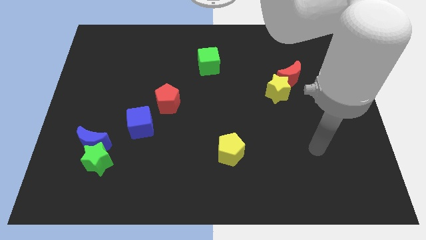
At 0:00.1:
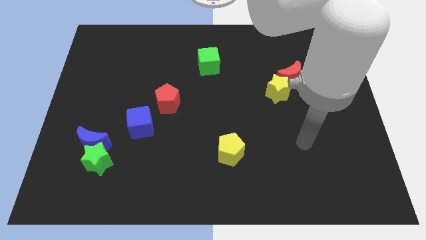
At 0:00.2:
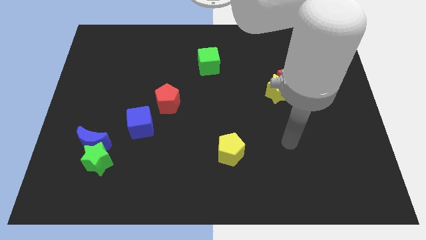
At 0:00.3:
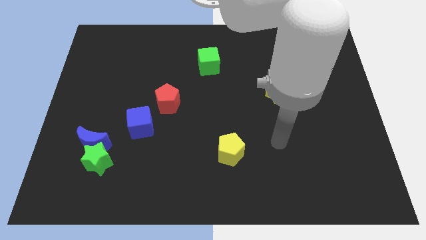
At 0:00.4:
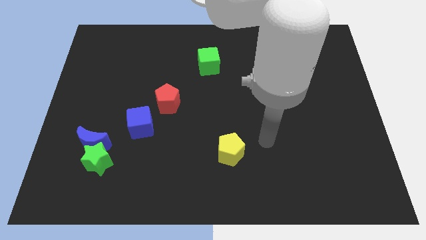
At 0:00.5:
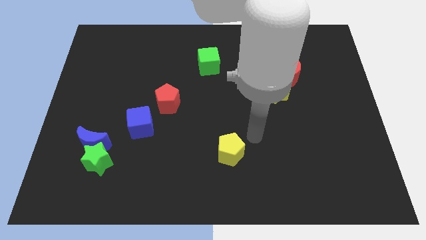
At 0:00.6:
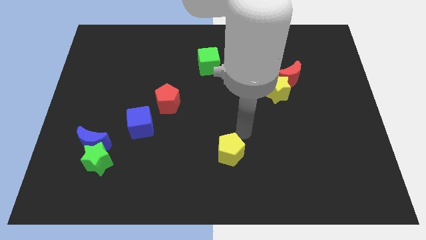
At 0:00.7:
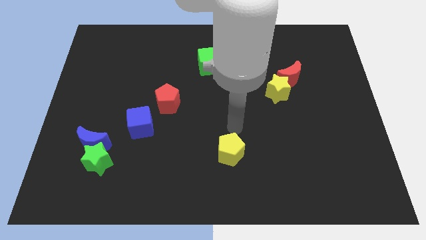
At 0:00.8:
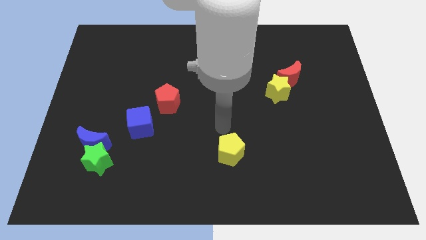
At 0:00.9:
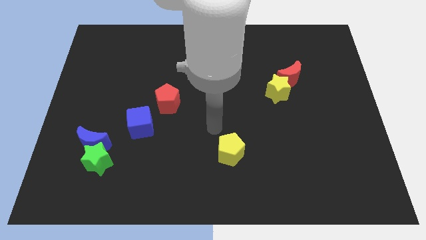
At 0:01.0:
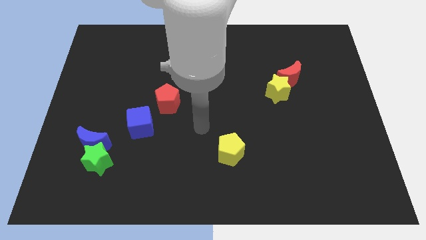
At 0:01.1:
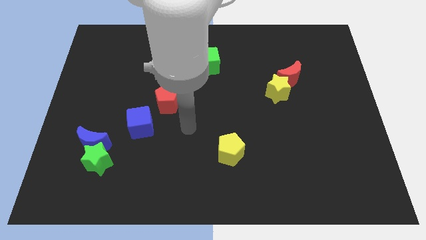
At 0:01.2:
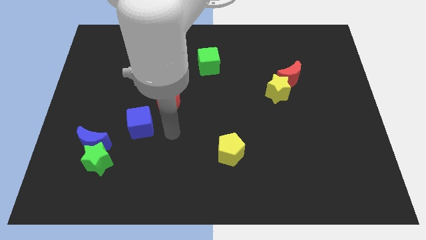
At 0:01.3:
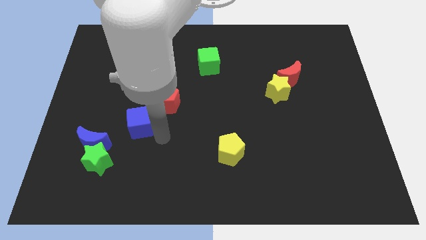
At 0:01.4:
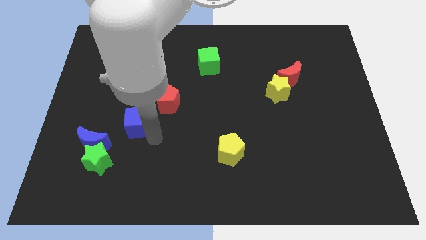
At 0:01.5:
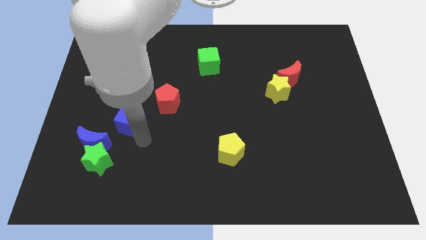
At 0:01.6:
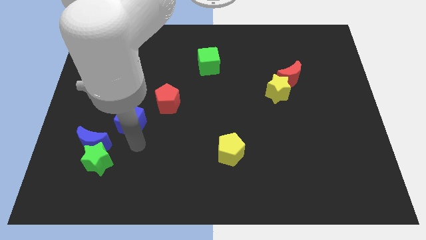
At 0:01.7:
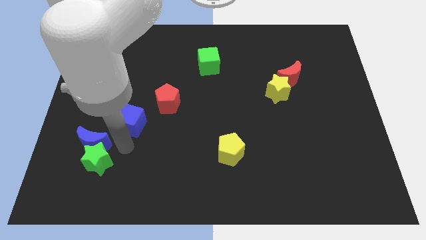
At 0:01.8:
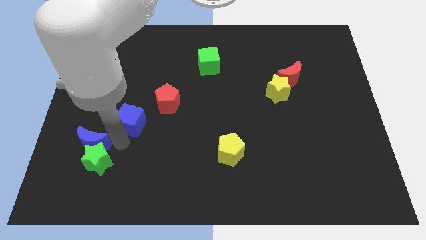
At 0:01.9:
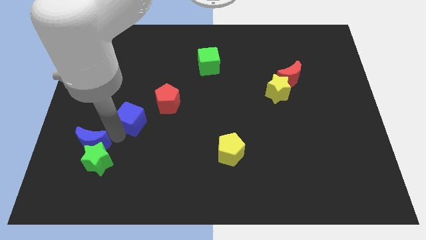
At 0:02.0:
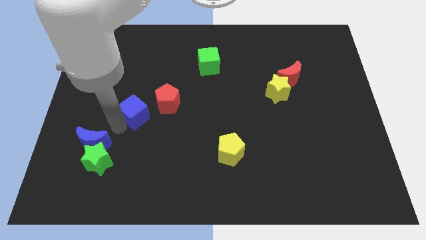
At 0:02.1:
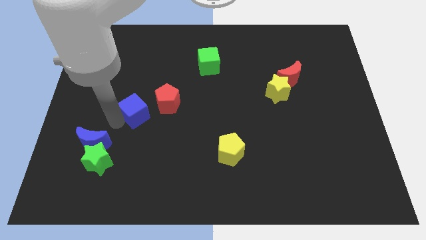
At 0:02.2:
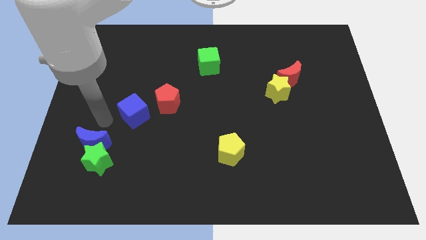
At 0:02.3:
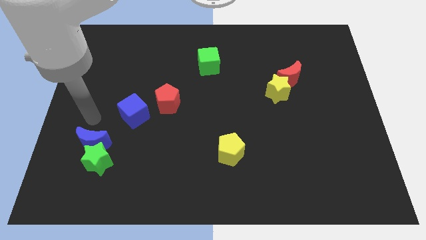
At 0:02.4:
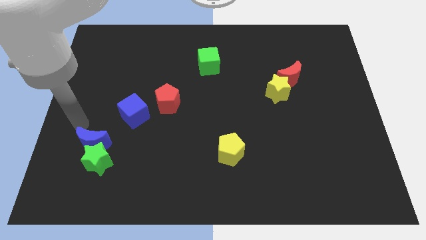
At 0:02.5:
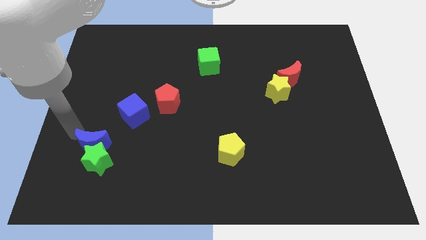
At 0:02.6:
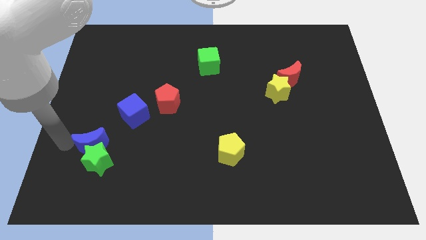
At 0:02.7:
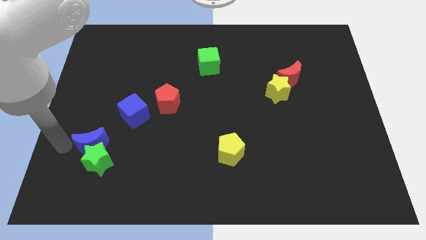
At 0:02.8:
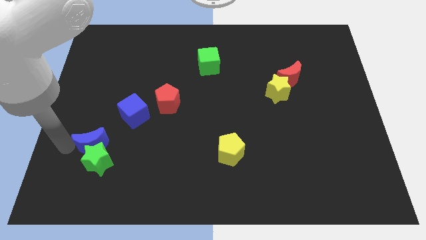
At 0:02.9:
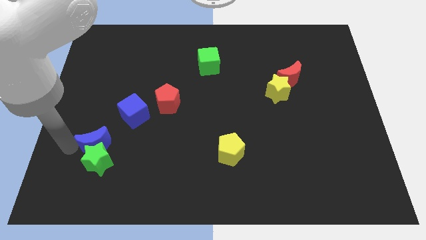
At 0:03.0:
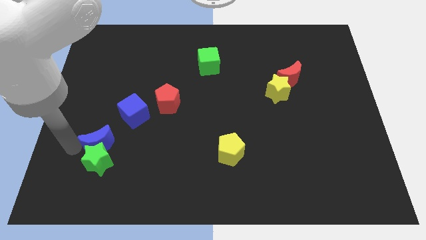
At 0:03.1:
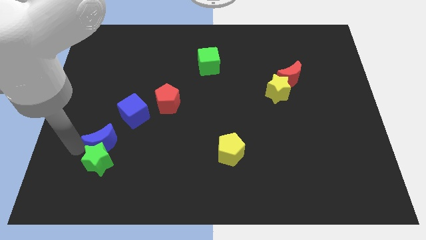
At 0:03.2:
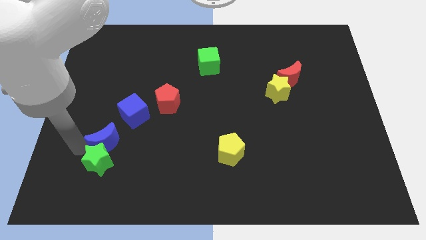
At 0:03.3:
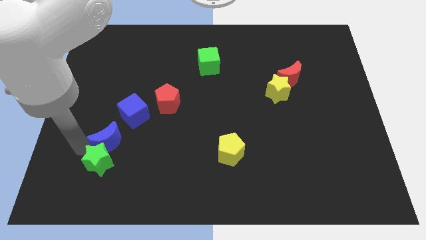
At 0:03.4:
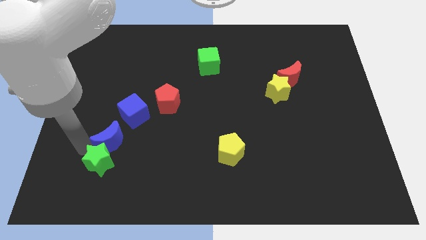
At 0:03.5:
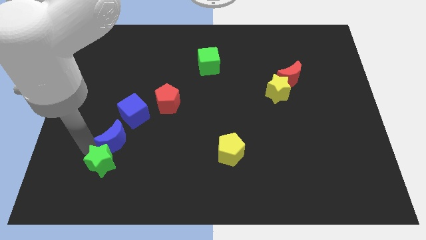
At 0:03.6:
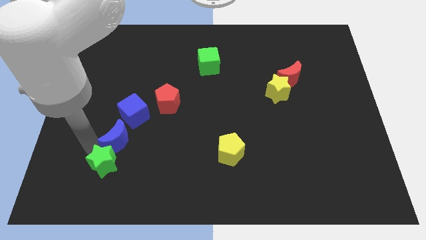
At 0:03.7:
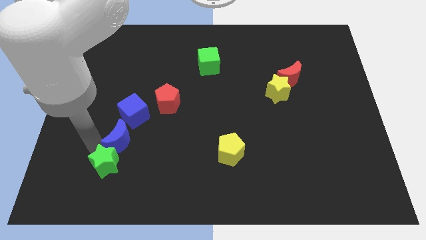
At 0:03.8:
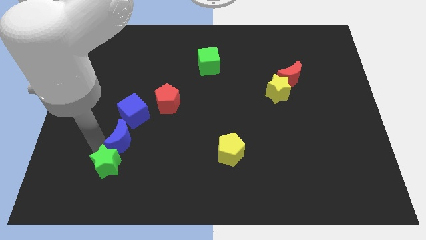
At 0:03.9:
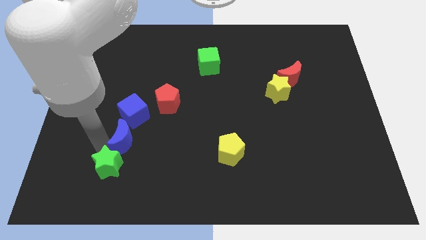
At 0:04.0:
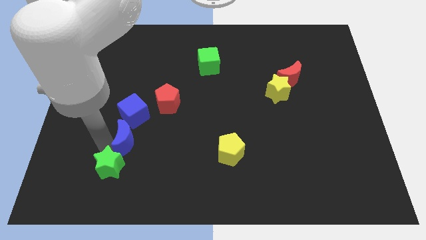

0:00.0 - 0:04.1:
slightly move the blue moon right

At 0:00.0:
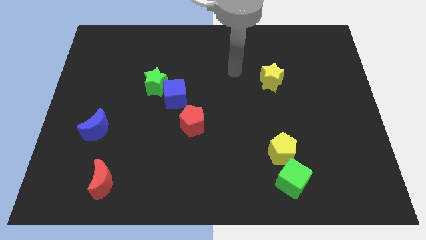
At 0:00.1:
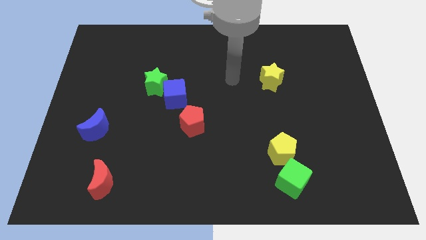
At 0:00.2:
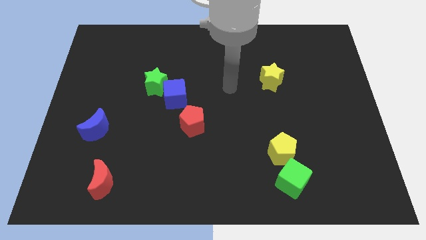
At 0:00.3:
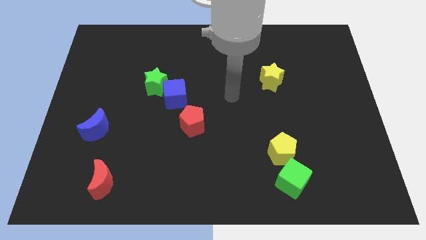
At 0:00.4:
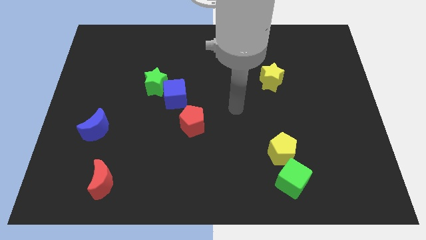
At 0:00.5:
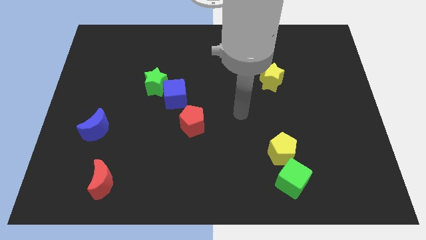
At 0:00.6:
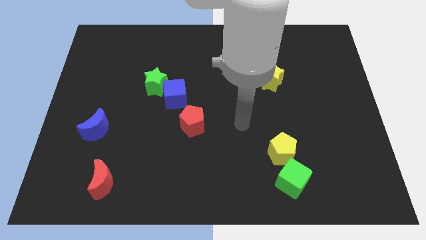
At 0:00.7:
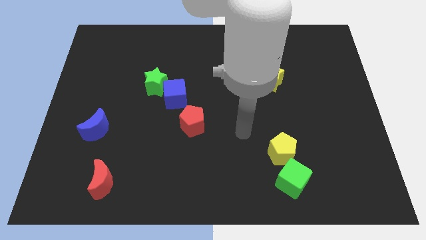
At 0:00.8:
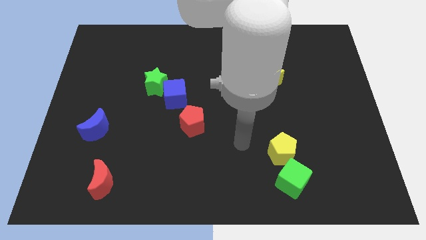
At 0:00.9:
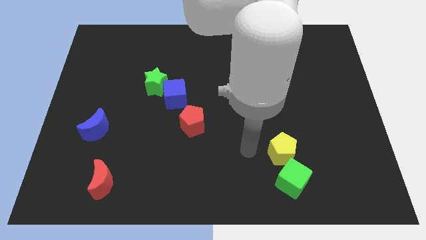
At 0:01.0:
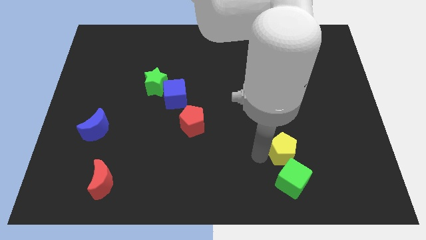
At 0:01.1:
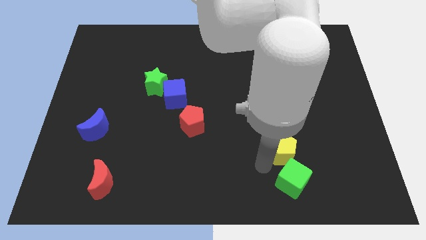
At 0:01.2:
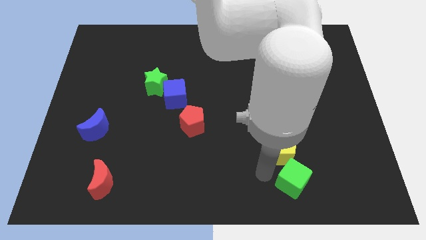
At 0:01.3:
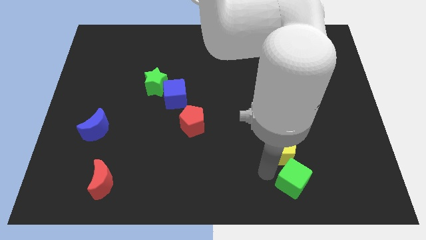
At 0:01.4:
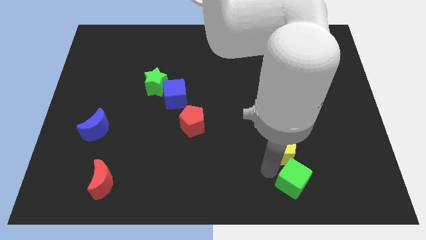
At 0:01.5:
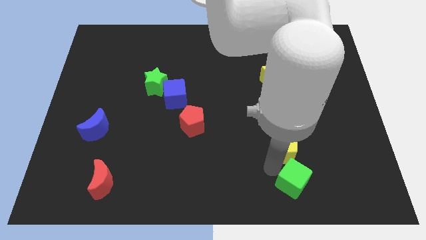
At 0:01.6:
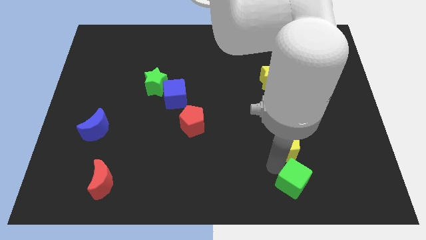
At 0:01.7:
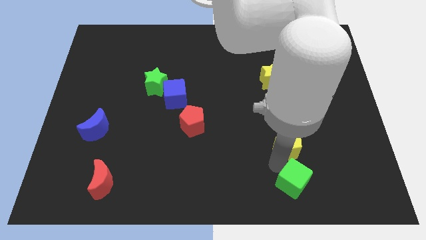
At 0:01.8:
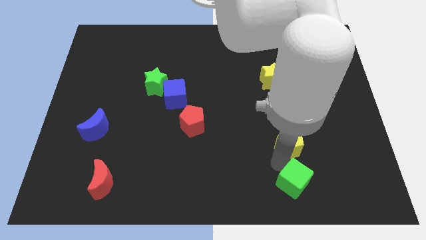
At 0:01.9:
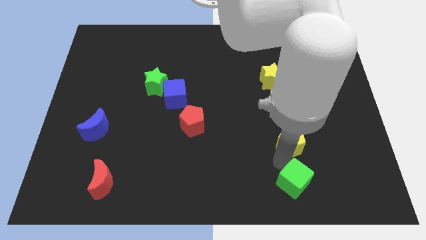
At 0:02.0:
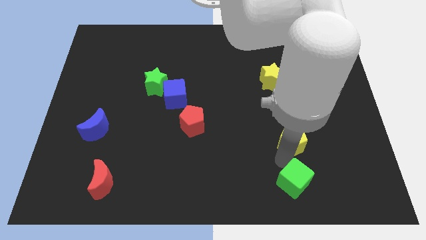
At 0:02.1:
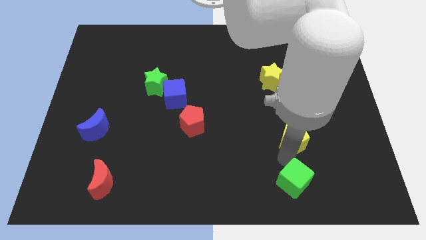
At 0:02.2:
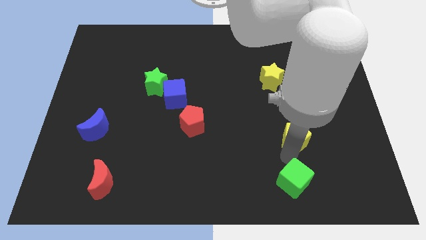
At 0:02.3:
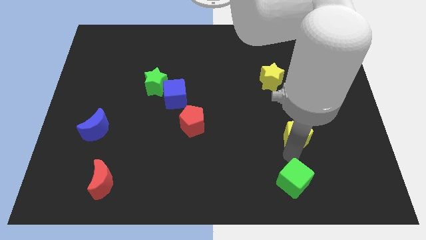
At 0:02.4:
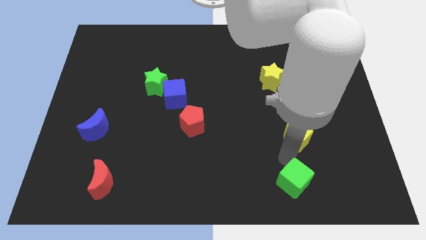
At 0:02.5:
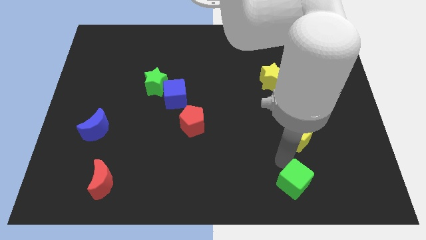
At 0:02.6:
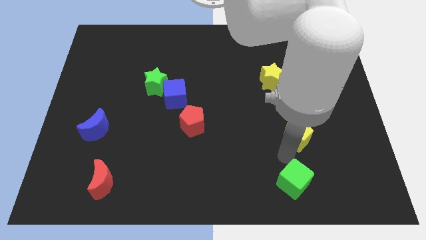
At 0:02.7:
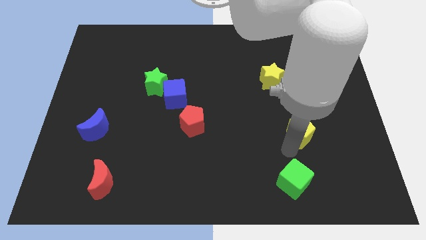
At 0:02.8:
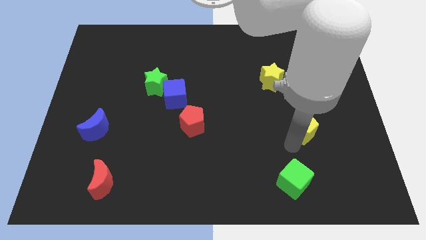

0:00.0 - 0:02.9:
slightly move the yellow pentagon up and right

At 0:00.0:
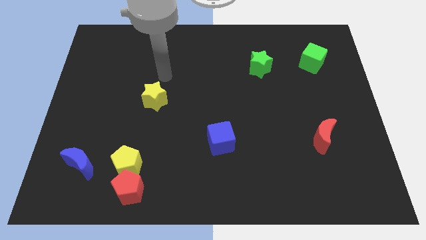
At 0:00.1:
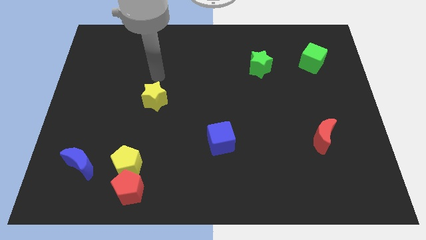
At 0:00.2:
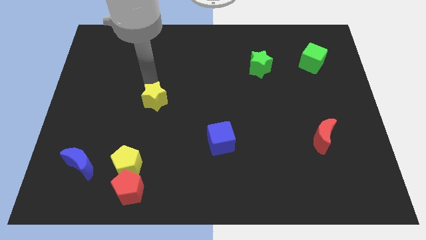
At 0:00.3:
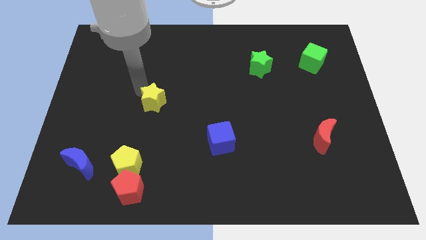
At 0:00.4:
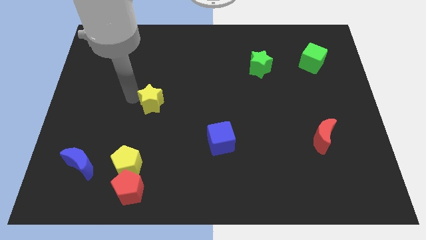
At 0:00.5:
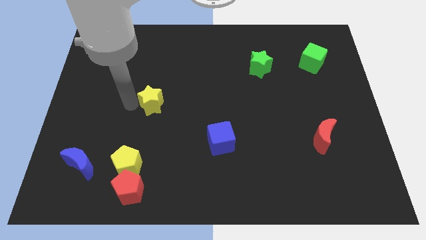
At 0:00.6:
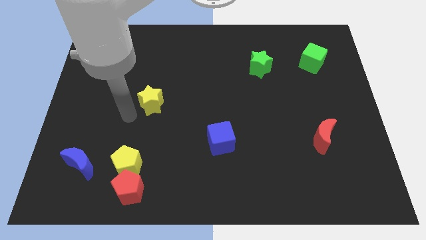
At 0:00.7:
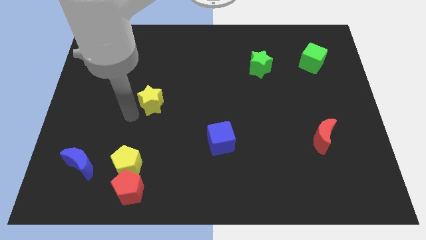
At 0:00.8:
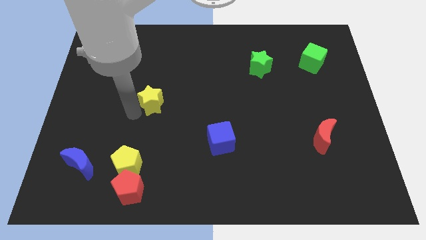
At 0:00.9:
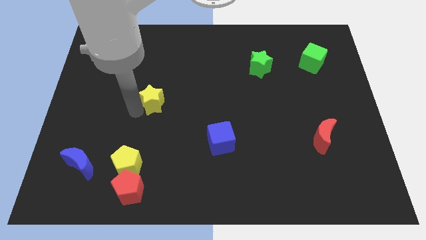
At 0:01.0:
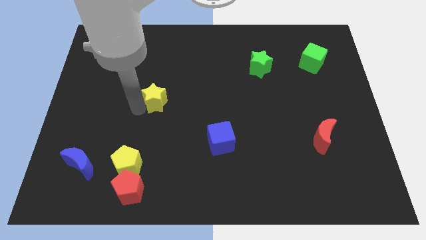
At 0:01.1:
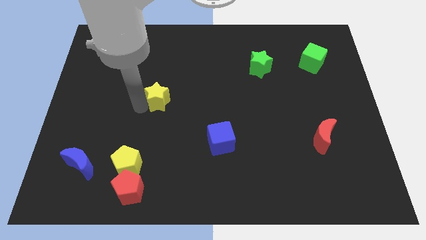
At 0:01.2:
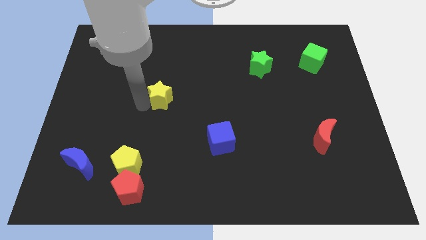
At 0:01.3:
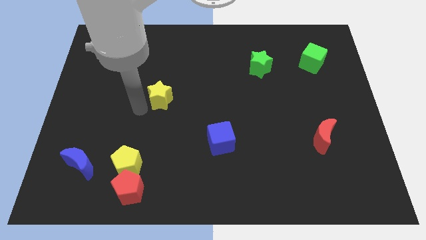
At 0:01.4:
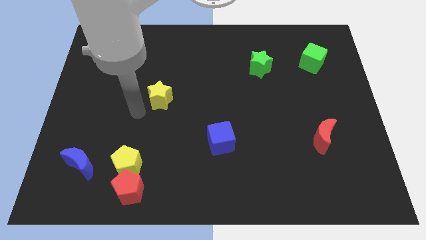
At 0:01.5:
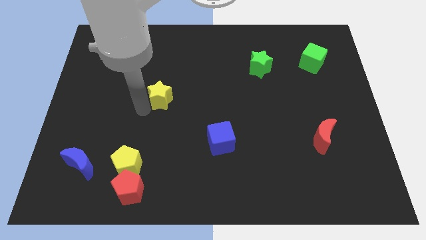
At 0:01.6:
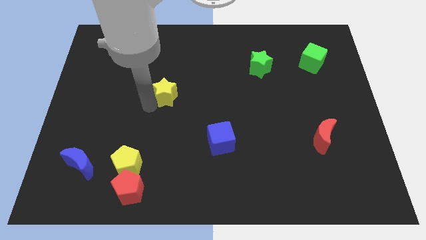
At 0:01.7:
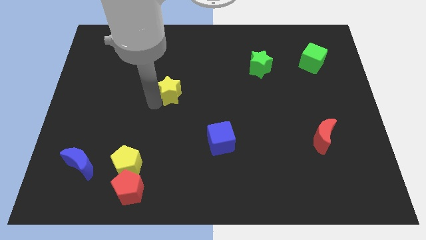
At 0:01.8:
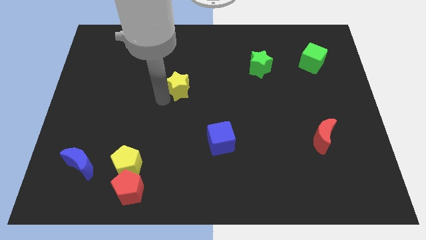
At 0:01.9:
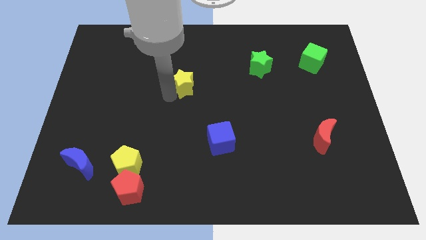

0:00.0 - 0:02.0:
slightly move the yellow star diagonally up and to the right
